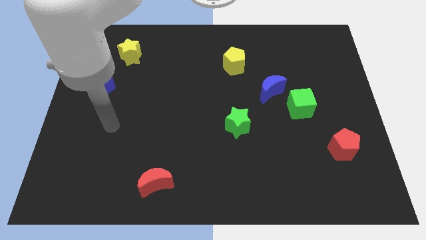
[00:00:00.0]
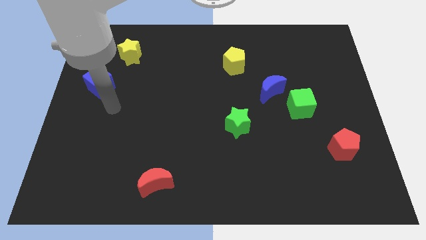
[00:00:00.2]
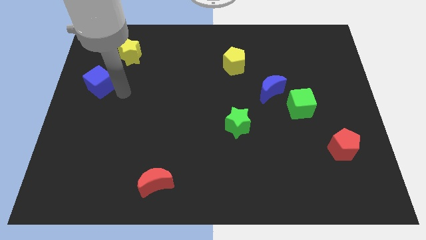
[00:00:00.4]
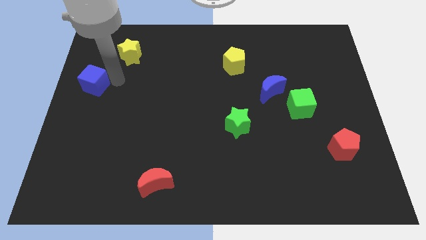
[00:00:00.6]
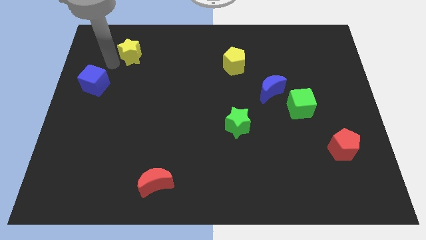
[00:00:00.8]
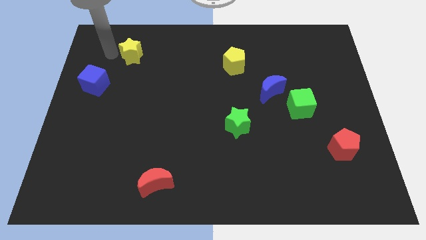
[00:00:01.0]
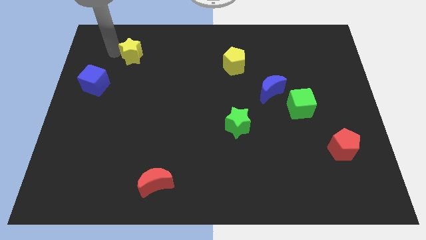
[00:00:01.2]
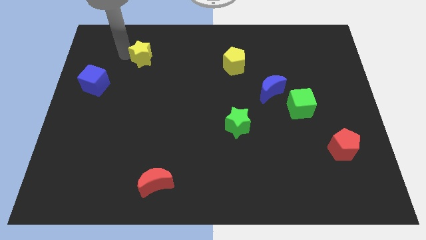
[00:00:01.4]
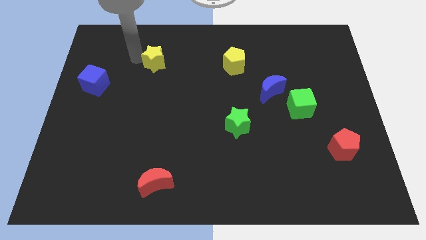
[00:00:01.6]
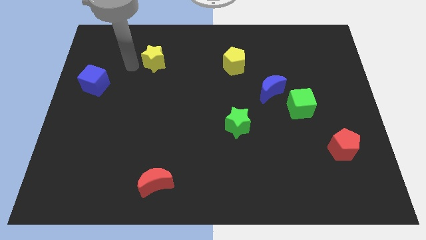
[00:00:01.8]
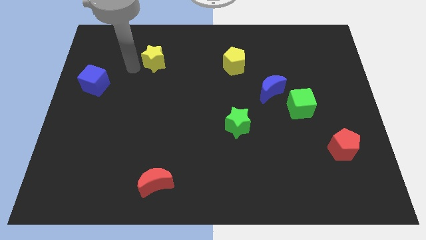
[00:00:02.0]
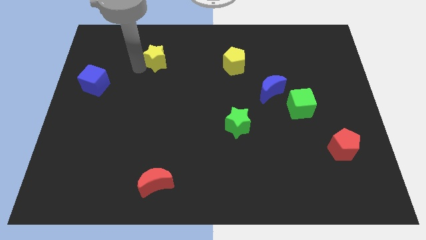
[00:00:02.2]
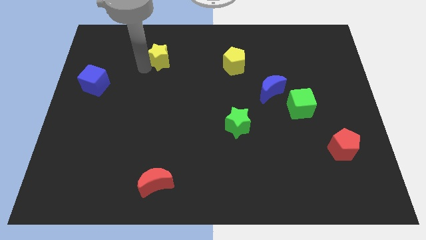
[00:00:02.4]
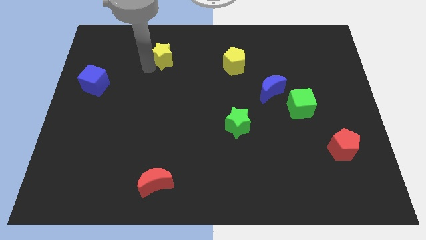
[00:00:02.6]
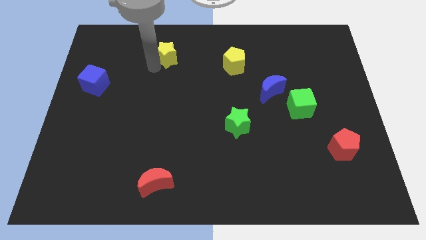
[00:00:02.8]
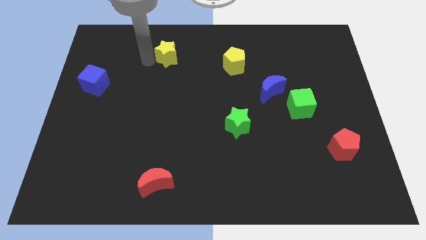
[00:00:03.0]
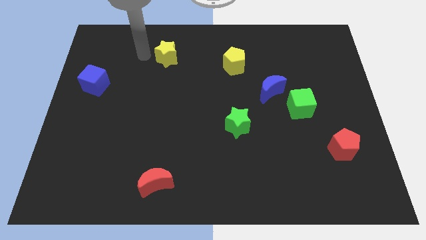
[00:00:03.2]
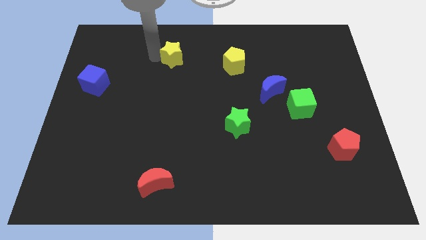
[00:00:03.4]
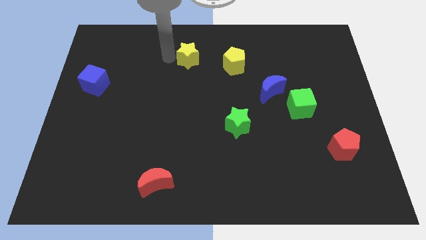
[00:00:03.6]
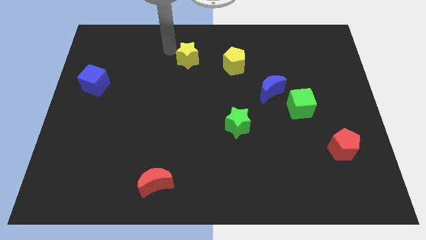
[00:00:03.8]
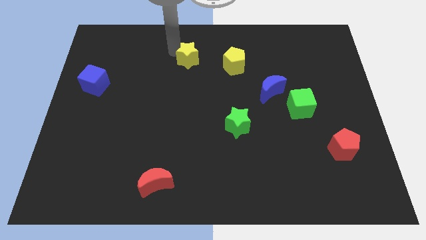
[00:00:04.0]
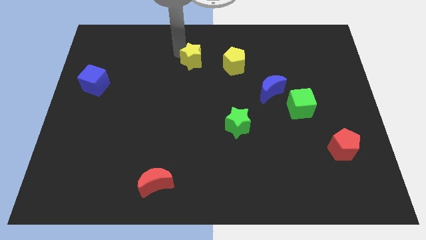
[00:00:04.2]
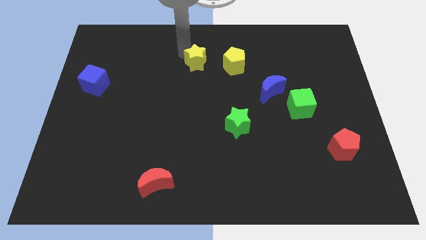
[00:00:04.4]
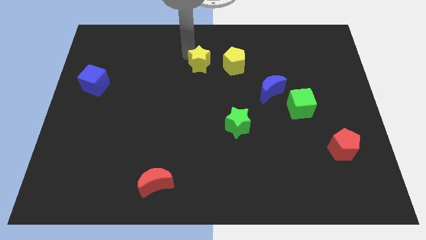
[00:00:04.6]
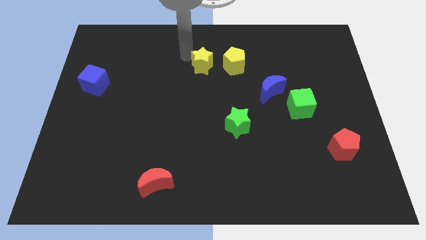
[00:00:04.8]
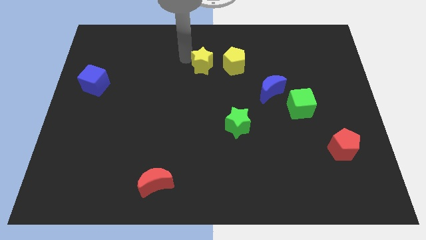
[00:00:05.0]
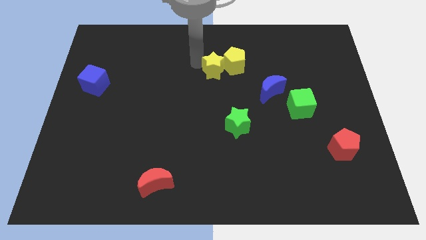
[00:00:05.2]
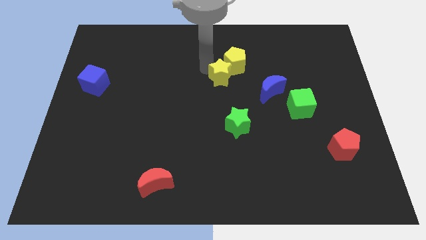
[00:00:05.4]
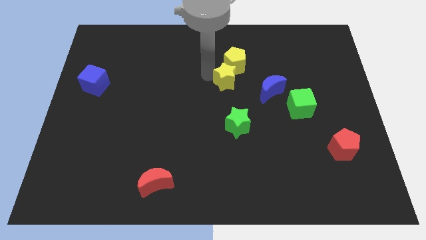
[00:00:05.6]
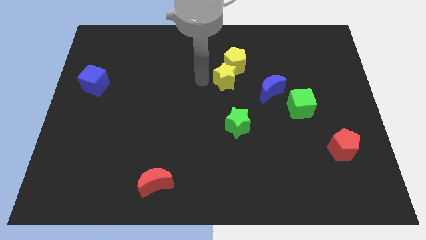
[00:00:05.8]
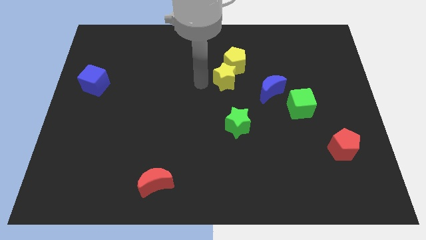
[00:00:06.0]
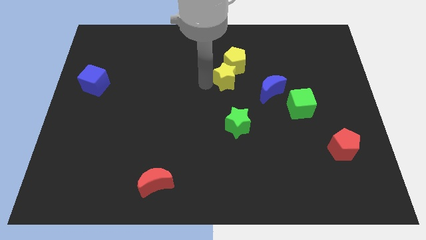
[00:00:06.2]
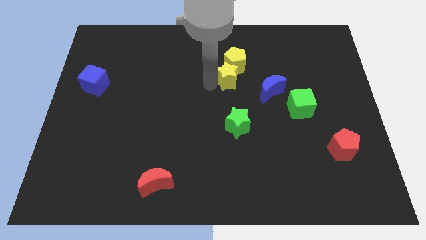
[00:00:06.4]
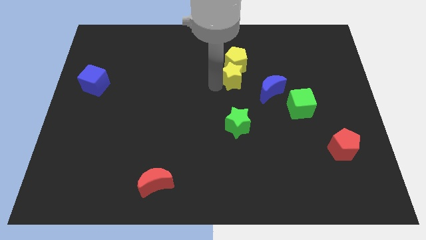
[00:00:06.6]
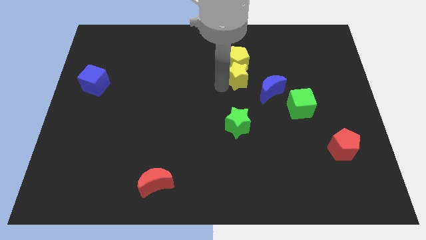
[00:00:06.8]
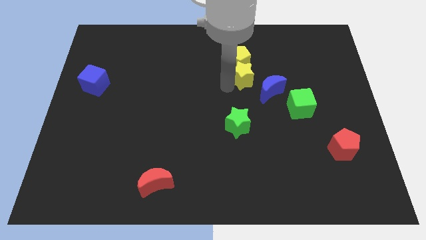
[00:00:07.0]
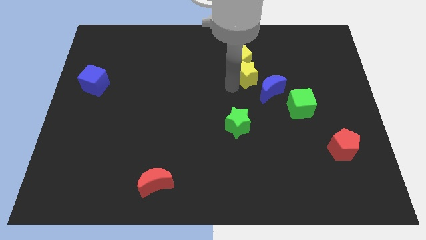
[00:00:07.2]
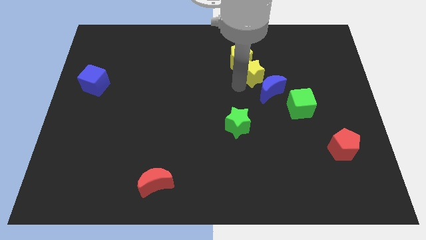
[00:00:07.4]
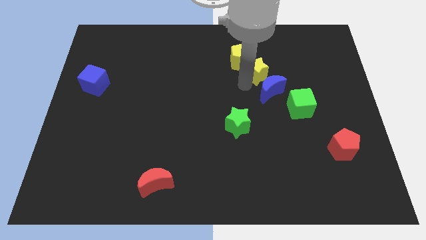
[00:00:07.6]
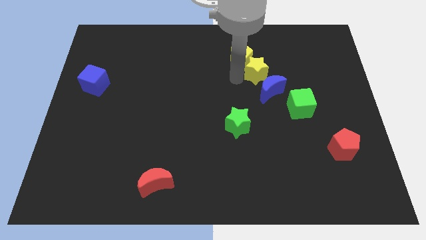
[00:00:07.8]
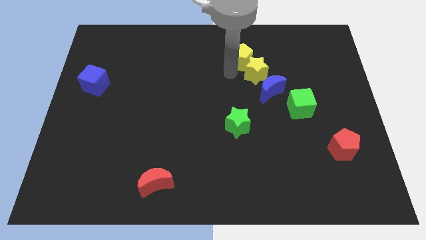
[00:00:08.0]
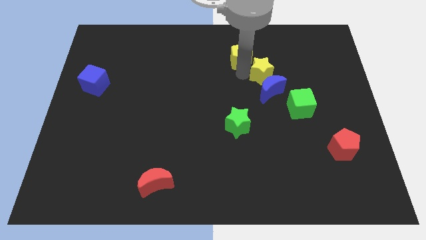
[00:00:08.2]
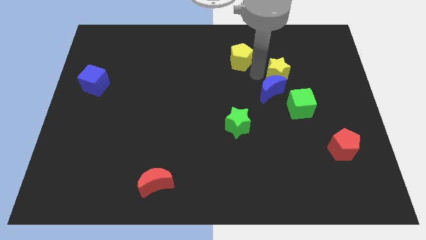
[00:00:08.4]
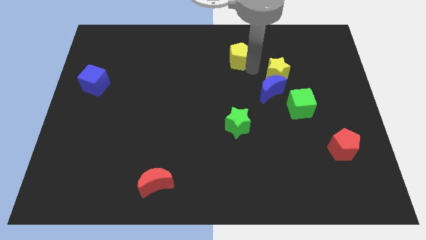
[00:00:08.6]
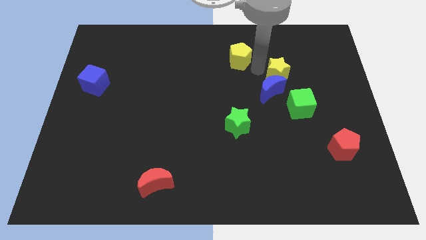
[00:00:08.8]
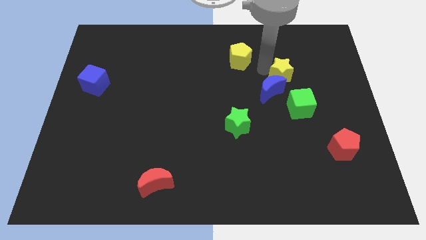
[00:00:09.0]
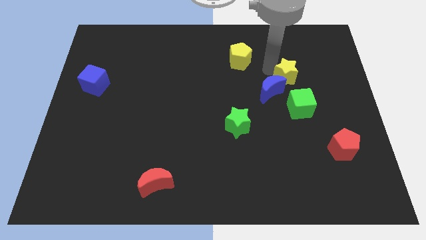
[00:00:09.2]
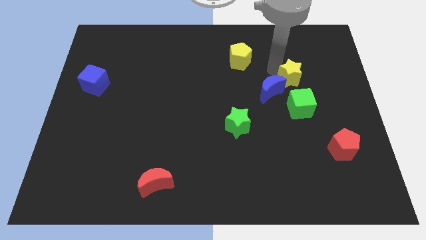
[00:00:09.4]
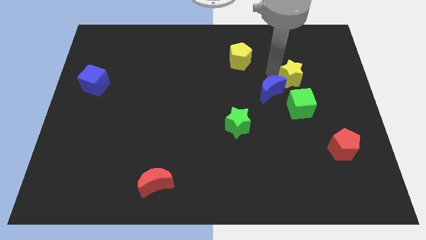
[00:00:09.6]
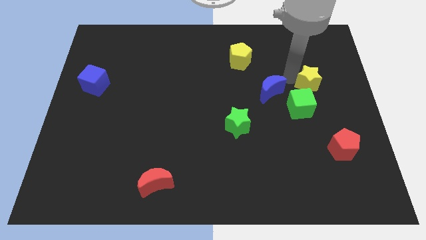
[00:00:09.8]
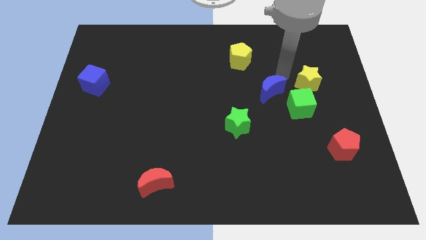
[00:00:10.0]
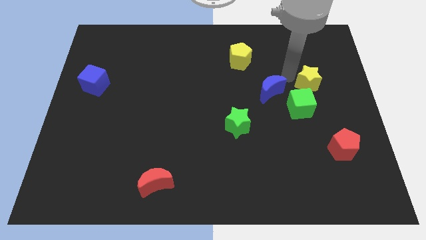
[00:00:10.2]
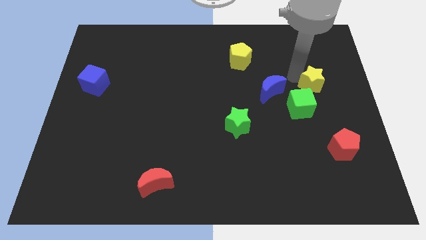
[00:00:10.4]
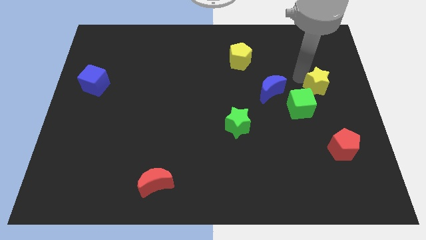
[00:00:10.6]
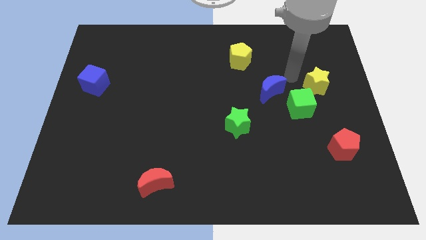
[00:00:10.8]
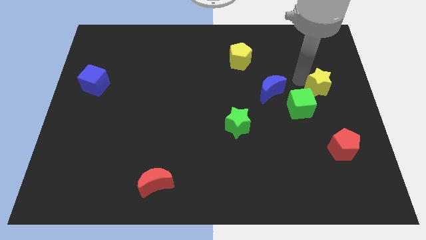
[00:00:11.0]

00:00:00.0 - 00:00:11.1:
move the yellow star to the right side of the board
